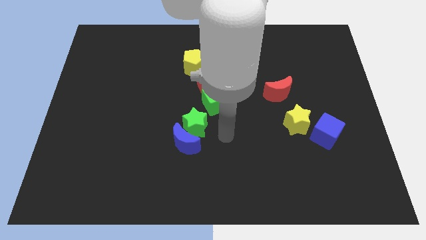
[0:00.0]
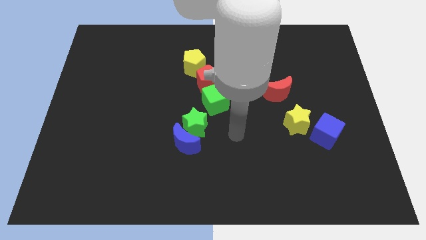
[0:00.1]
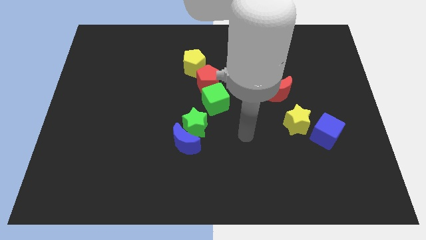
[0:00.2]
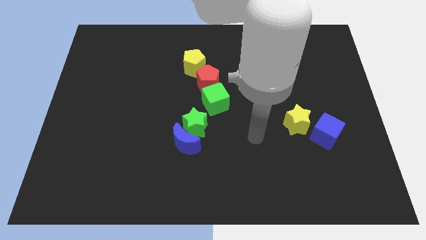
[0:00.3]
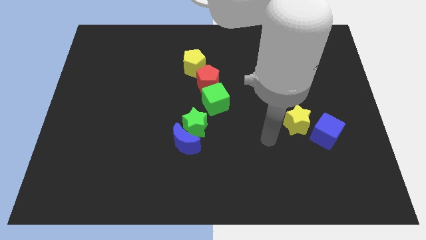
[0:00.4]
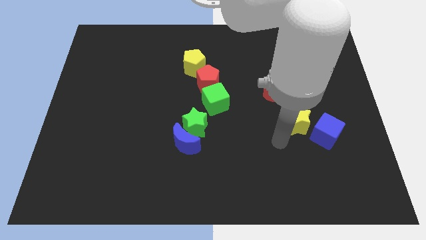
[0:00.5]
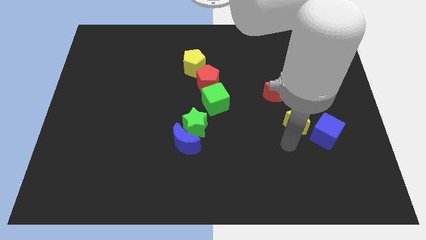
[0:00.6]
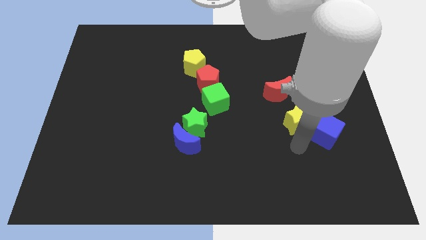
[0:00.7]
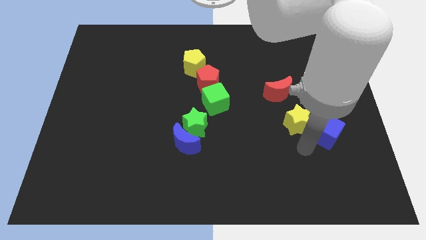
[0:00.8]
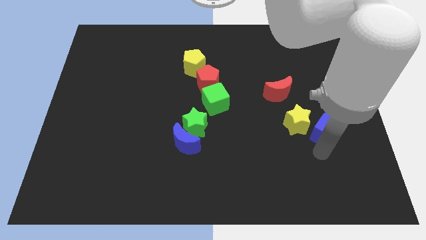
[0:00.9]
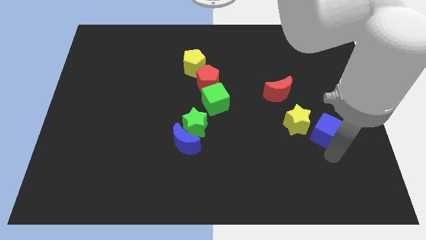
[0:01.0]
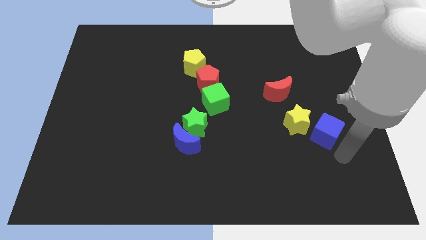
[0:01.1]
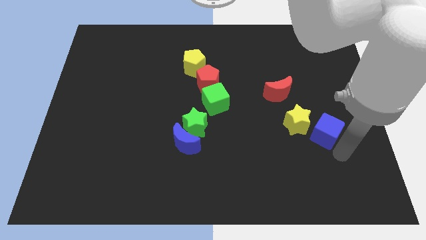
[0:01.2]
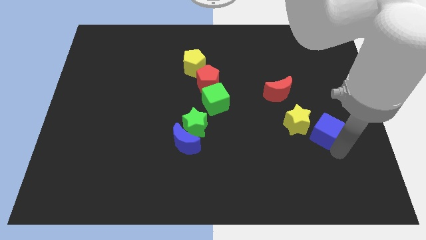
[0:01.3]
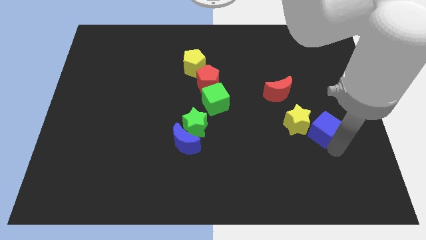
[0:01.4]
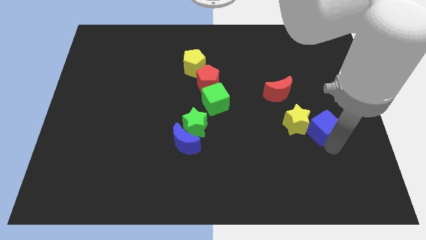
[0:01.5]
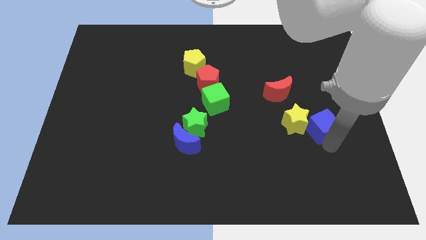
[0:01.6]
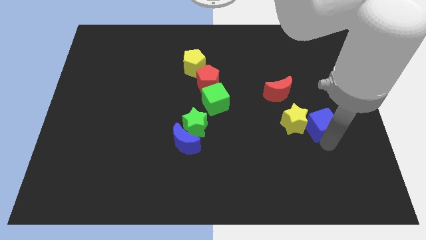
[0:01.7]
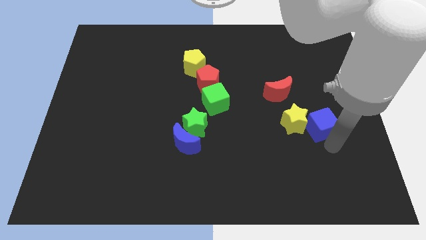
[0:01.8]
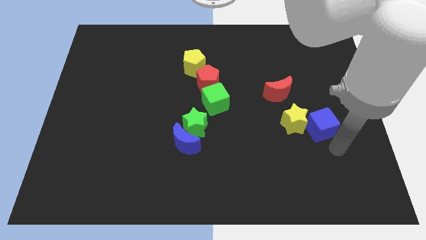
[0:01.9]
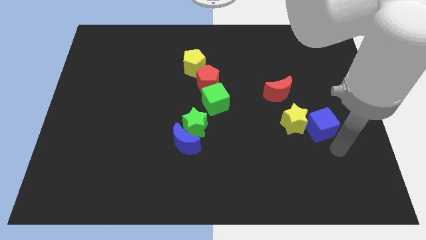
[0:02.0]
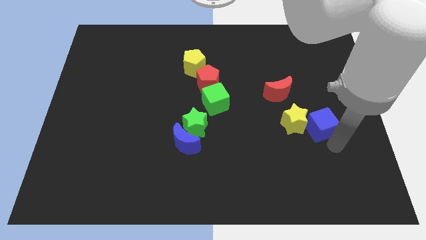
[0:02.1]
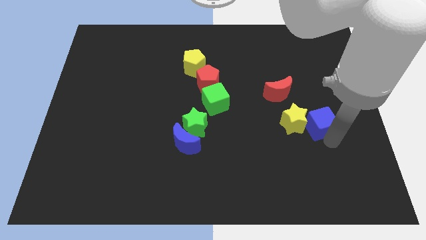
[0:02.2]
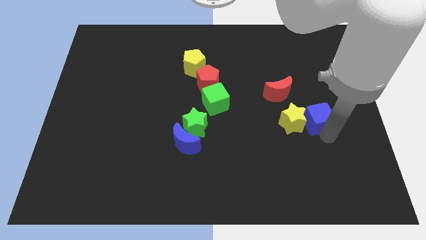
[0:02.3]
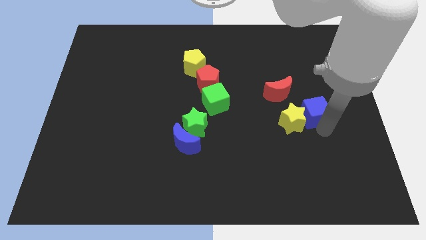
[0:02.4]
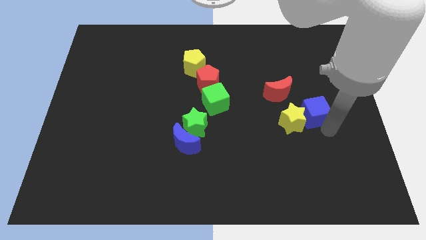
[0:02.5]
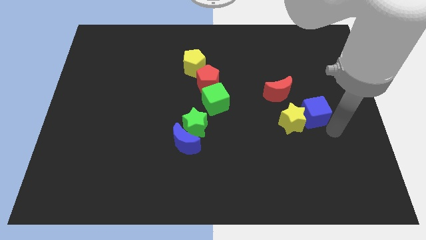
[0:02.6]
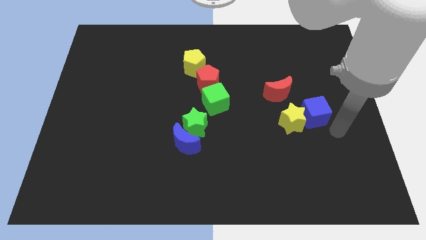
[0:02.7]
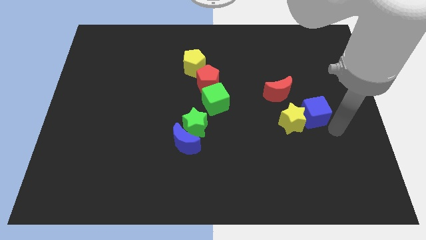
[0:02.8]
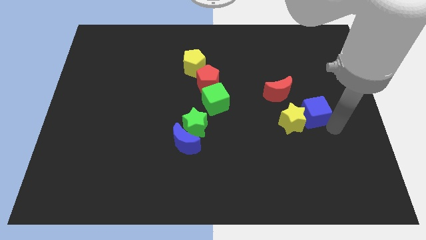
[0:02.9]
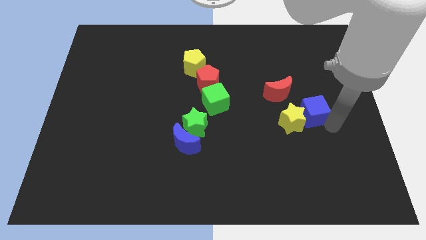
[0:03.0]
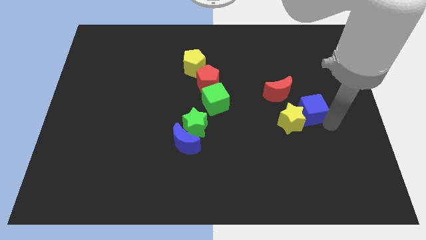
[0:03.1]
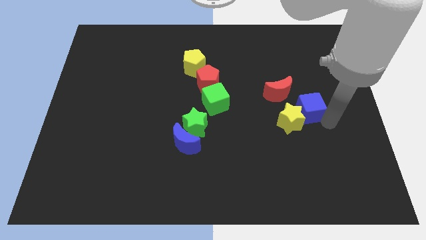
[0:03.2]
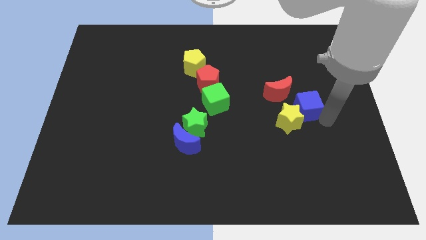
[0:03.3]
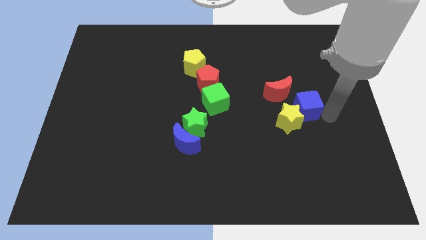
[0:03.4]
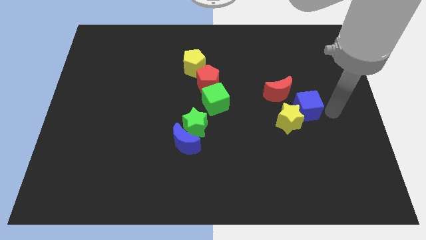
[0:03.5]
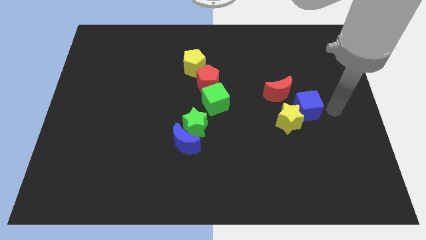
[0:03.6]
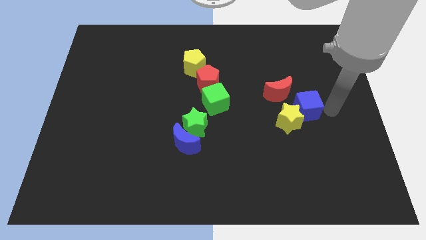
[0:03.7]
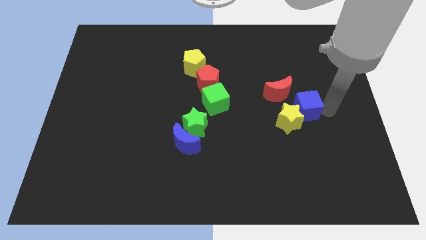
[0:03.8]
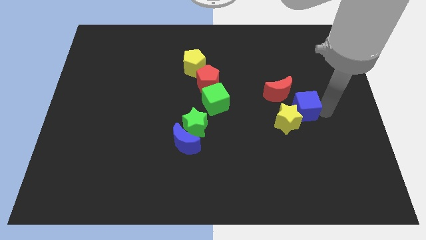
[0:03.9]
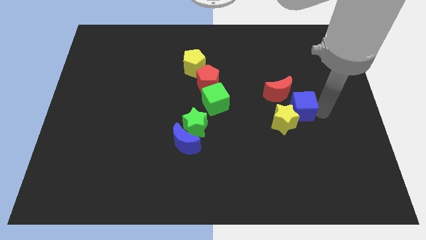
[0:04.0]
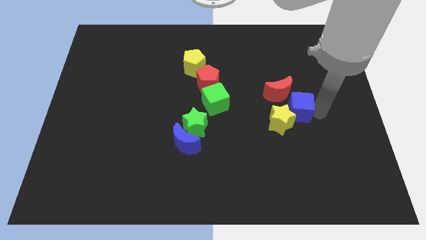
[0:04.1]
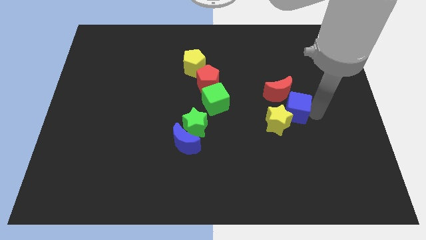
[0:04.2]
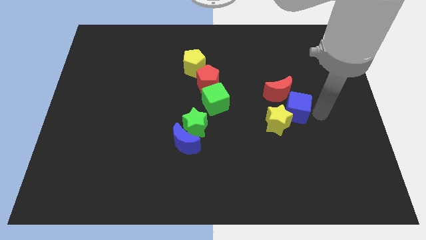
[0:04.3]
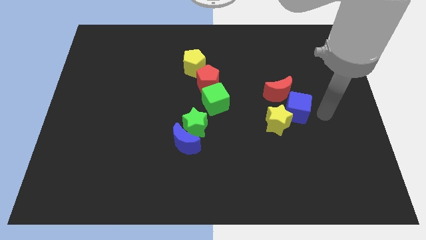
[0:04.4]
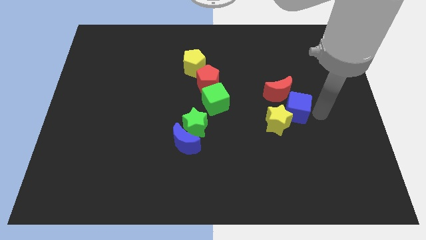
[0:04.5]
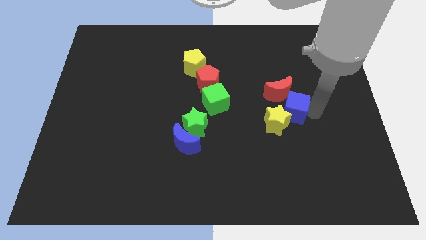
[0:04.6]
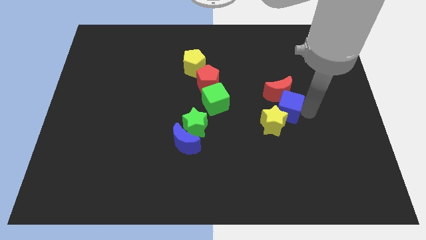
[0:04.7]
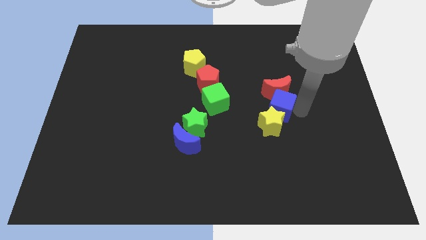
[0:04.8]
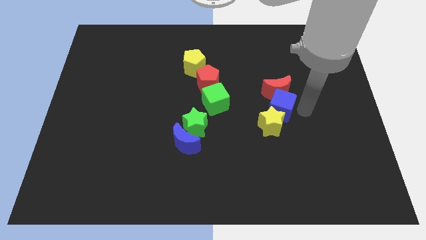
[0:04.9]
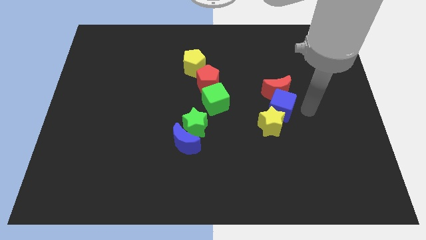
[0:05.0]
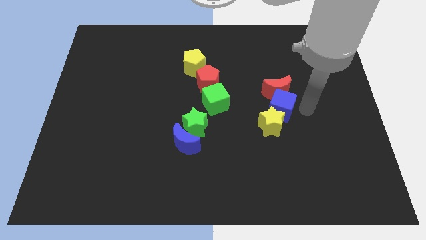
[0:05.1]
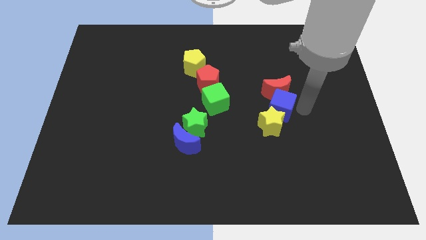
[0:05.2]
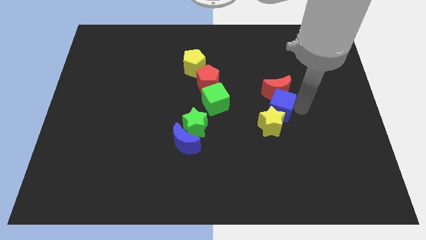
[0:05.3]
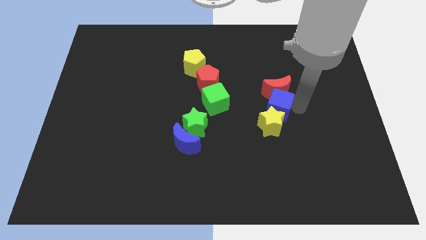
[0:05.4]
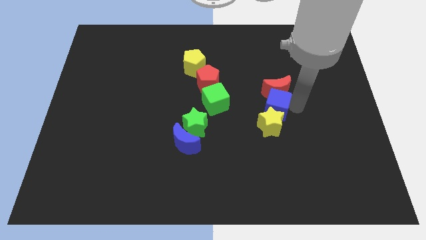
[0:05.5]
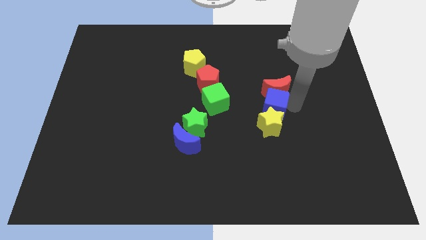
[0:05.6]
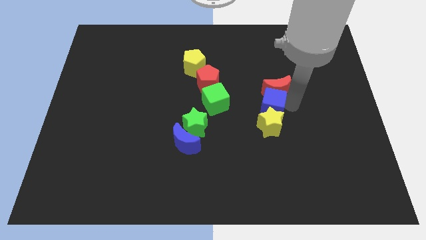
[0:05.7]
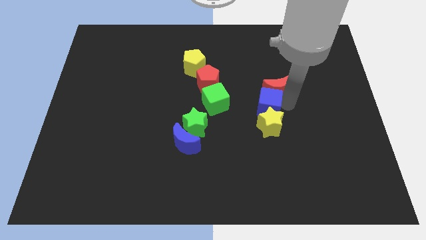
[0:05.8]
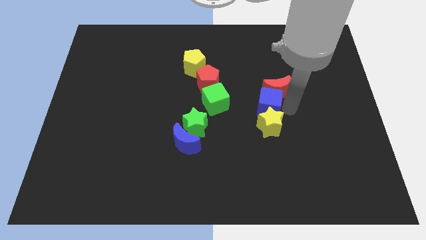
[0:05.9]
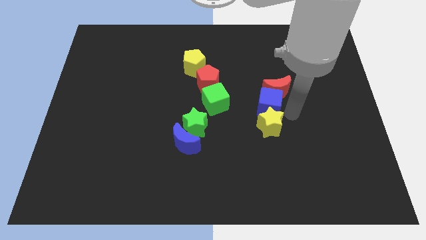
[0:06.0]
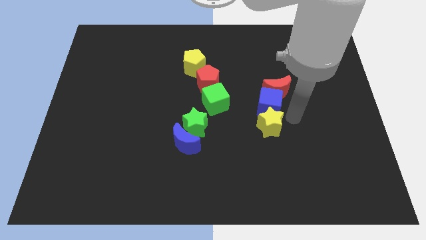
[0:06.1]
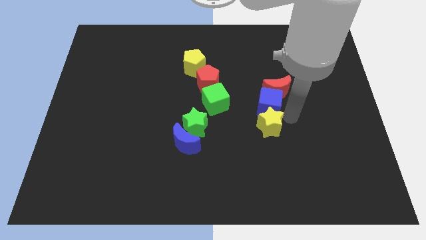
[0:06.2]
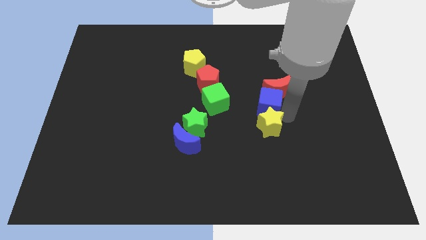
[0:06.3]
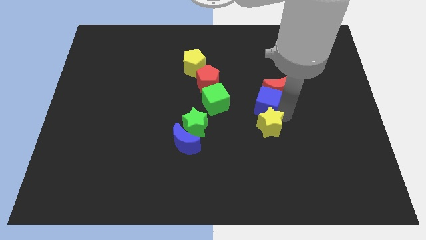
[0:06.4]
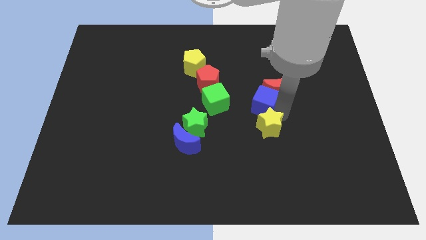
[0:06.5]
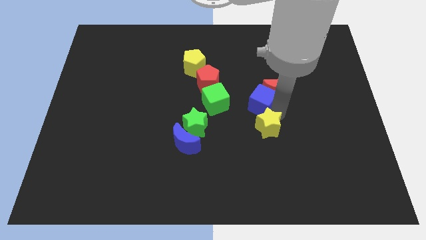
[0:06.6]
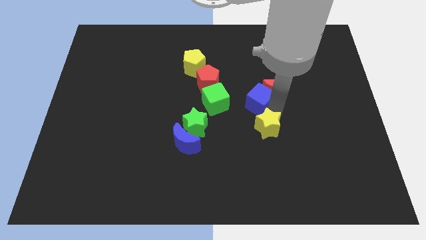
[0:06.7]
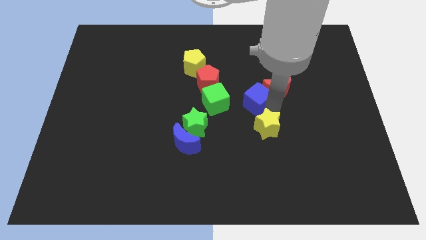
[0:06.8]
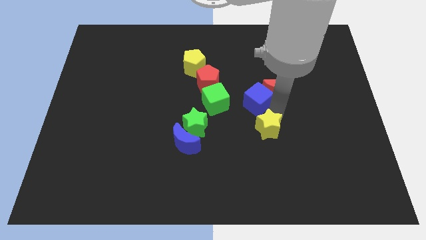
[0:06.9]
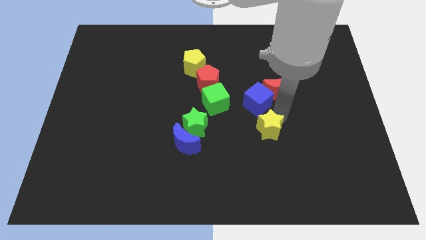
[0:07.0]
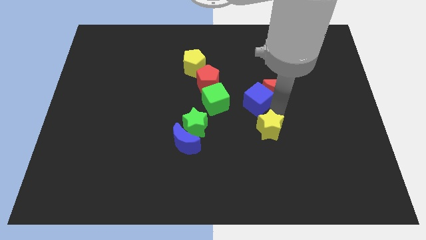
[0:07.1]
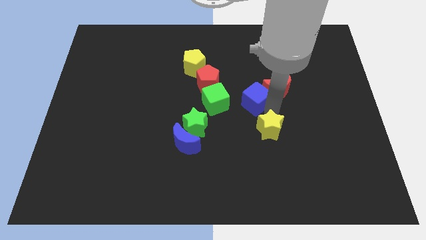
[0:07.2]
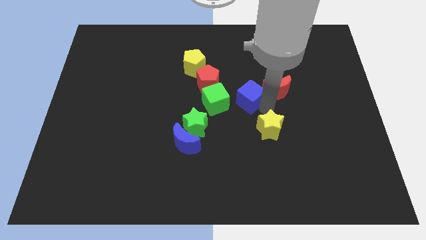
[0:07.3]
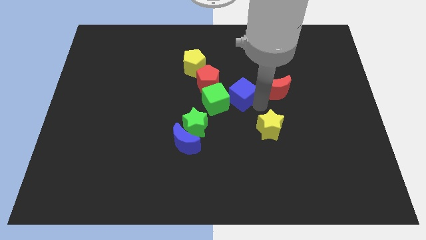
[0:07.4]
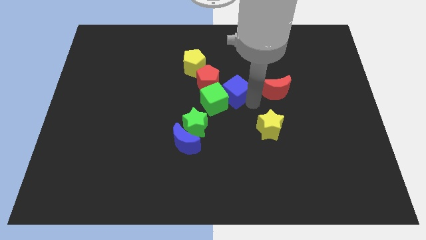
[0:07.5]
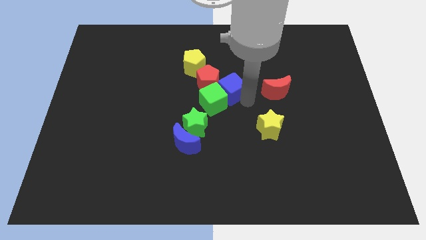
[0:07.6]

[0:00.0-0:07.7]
move the blue cube to the top side of the green cube

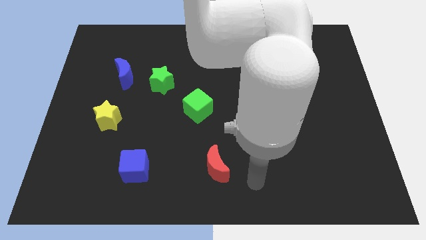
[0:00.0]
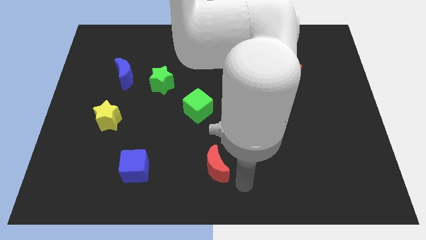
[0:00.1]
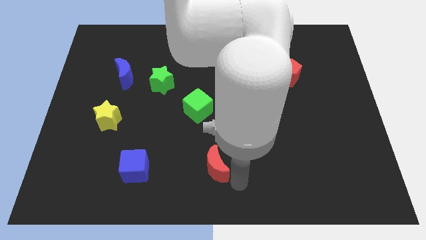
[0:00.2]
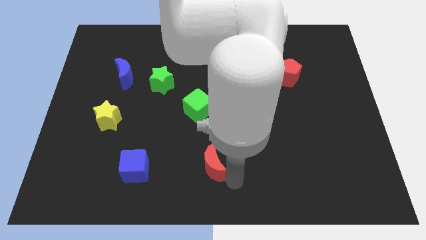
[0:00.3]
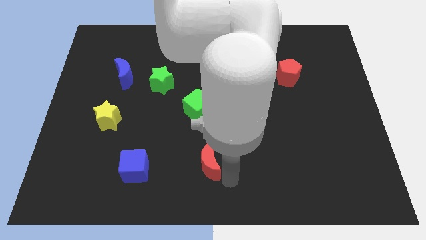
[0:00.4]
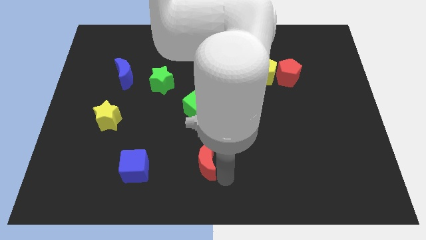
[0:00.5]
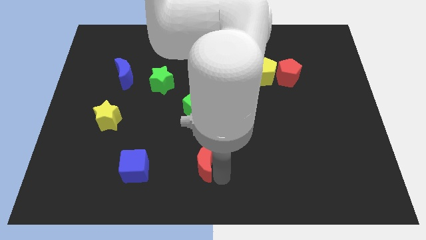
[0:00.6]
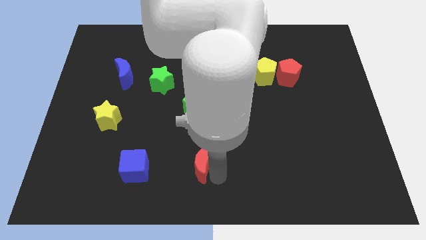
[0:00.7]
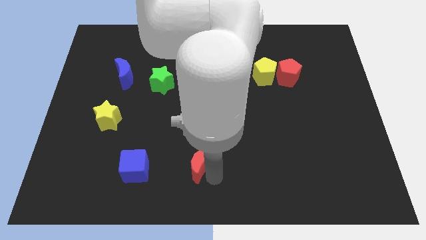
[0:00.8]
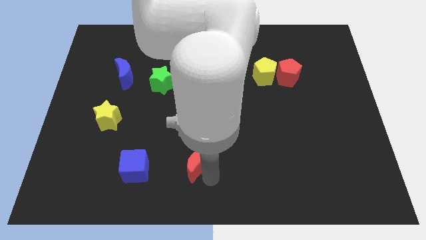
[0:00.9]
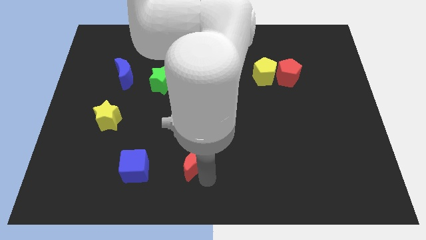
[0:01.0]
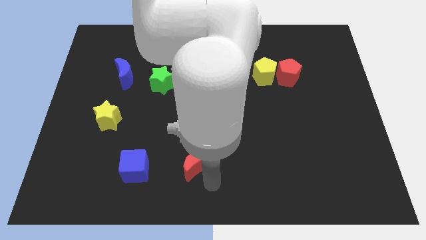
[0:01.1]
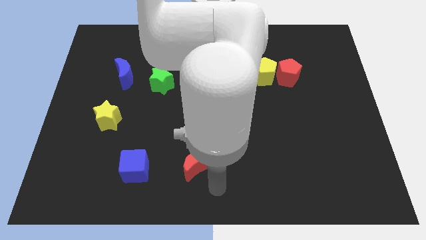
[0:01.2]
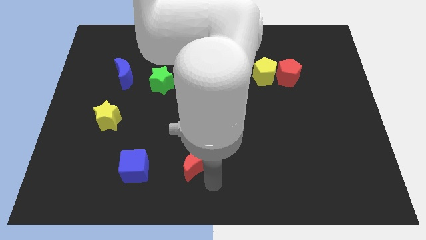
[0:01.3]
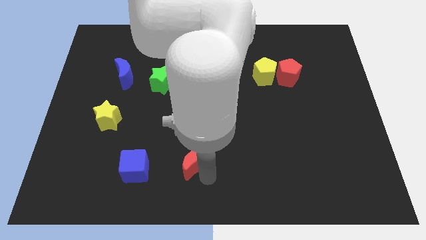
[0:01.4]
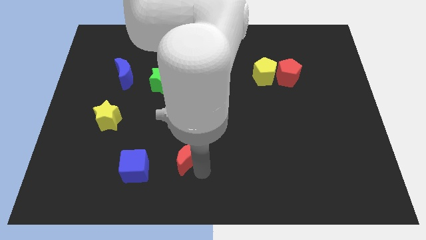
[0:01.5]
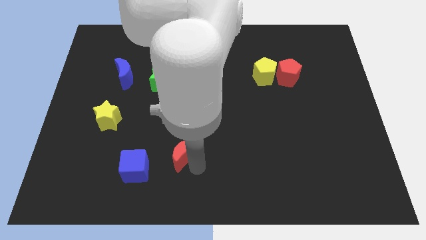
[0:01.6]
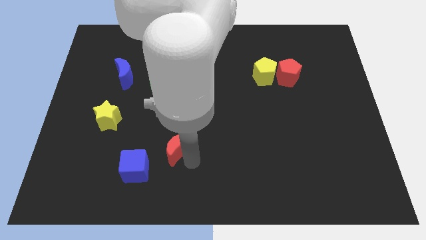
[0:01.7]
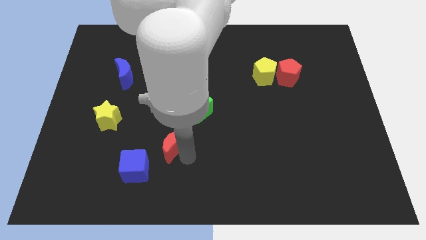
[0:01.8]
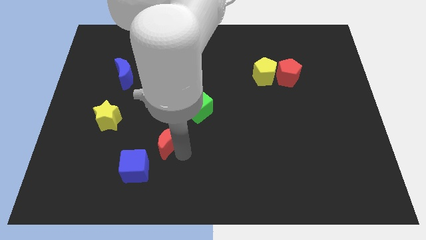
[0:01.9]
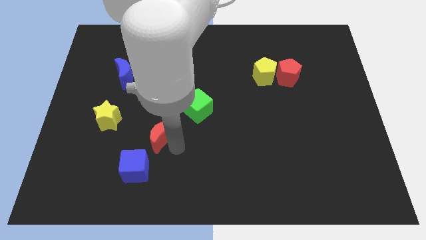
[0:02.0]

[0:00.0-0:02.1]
put the red moon to the top of the blue cube
